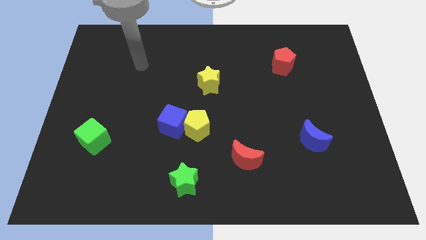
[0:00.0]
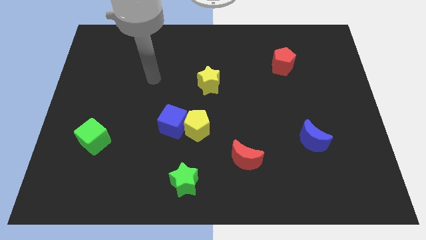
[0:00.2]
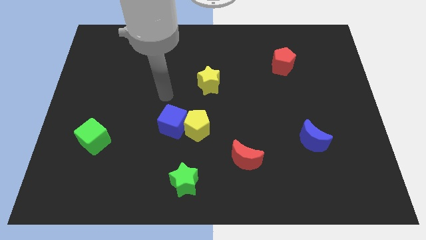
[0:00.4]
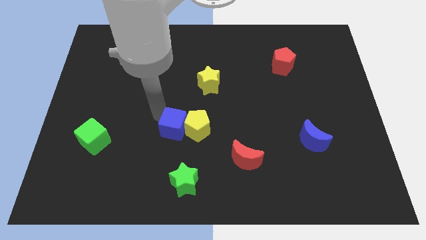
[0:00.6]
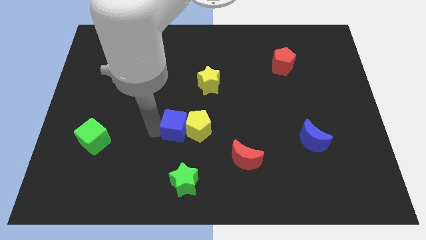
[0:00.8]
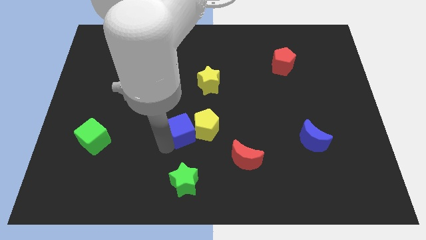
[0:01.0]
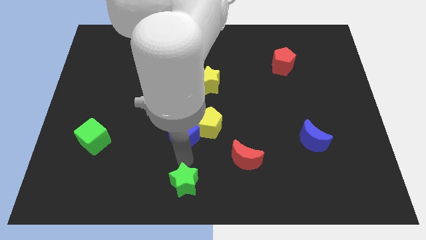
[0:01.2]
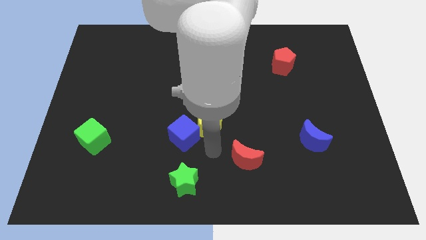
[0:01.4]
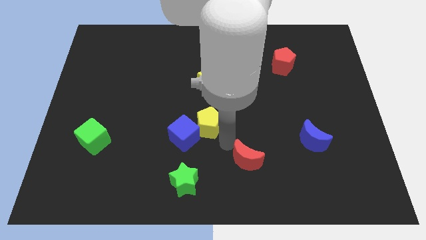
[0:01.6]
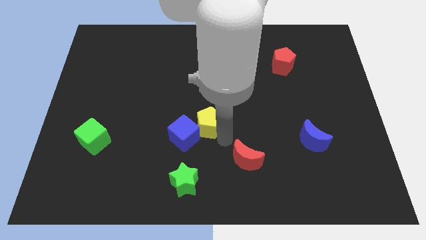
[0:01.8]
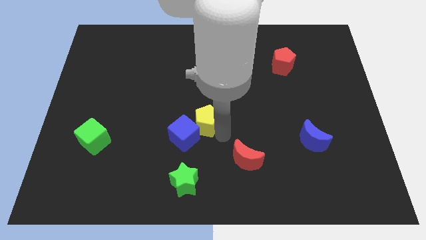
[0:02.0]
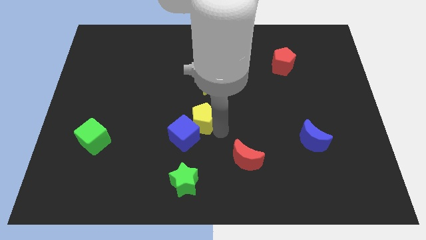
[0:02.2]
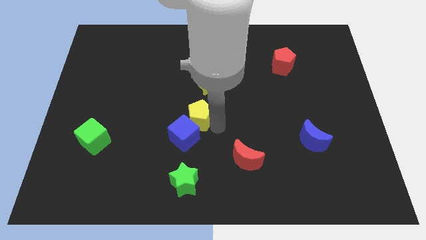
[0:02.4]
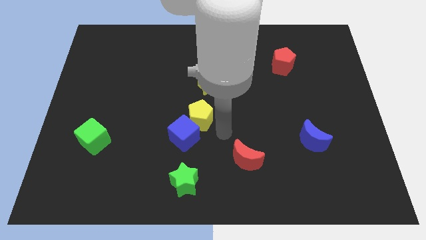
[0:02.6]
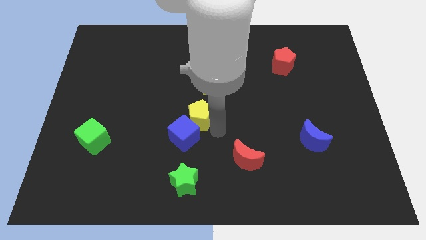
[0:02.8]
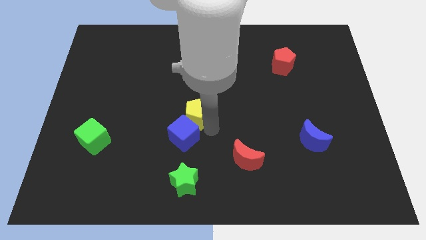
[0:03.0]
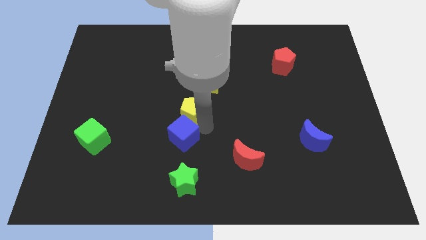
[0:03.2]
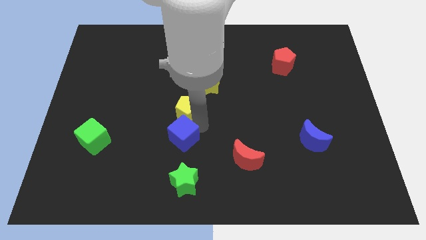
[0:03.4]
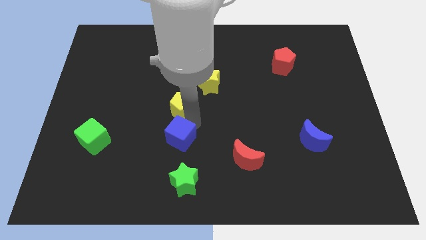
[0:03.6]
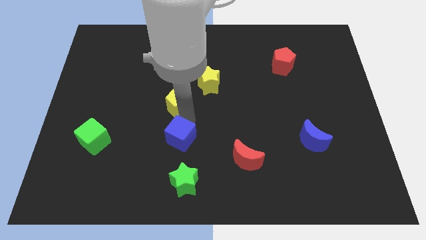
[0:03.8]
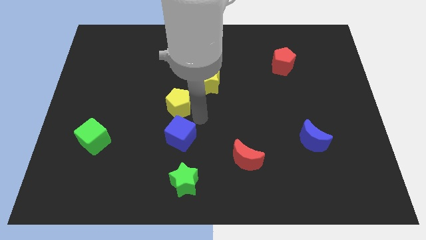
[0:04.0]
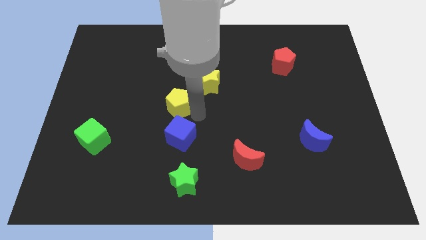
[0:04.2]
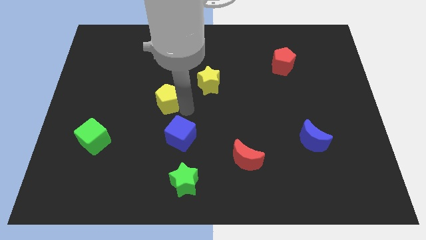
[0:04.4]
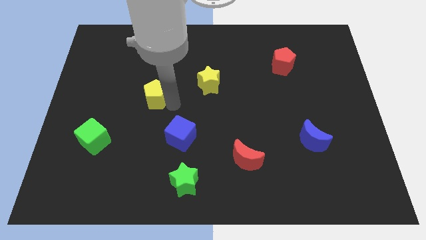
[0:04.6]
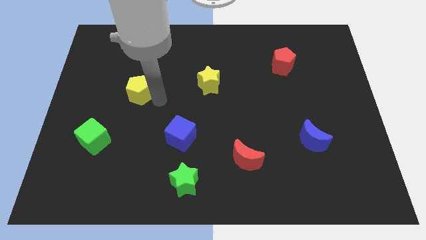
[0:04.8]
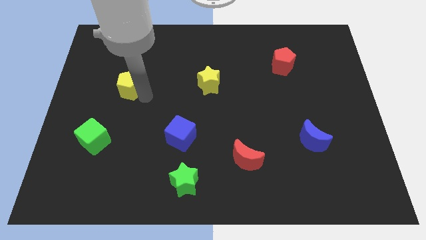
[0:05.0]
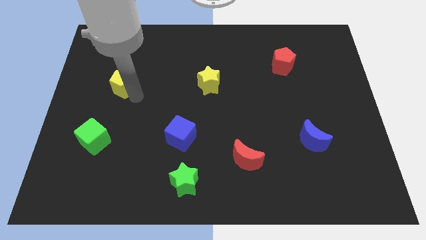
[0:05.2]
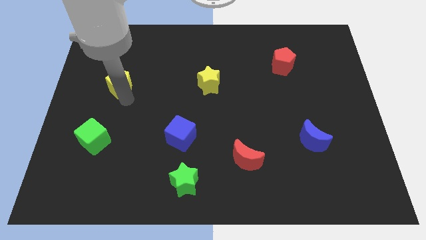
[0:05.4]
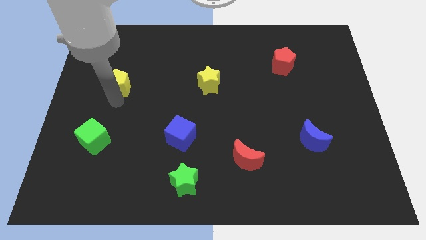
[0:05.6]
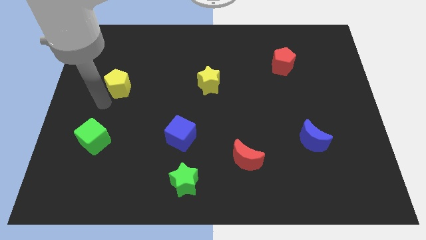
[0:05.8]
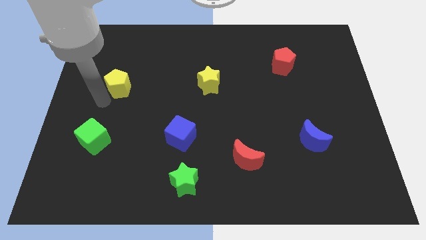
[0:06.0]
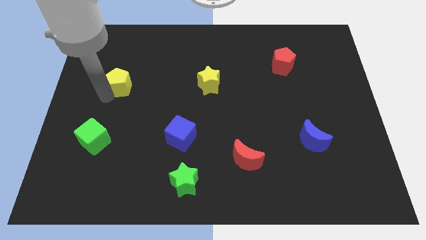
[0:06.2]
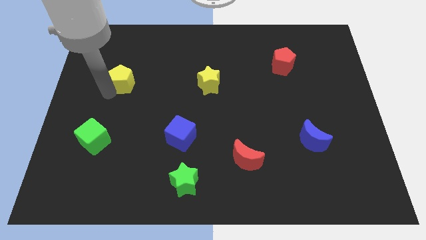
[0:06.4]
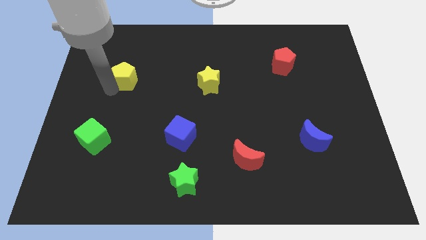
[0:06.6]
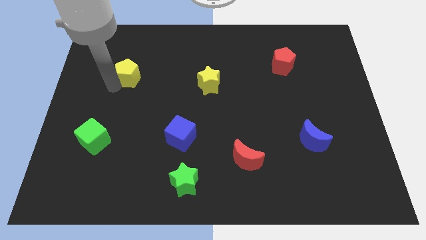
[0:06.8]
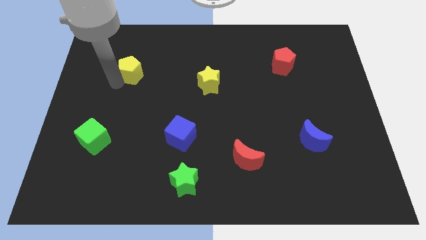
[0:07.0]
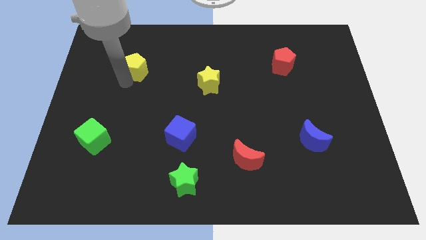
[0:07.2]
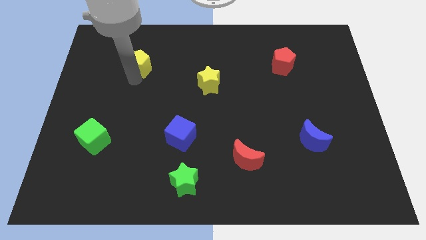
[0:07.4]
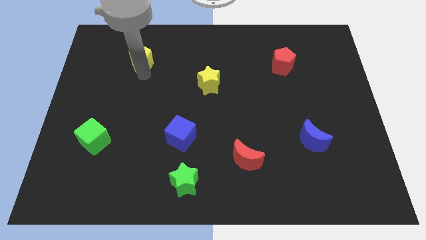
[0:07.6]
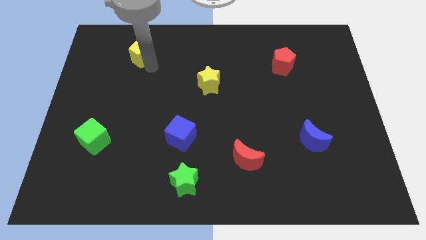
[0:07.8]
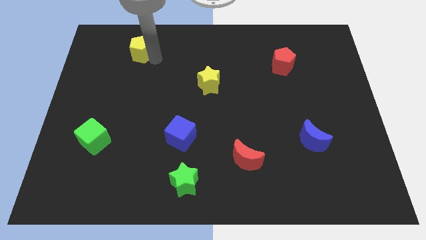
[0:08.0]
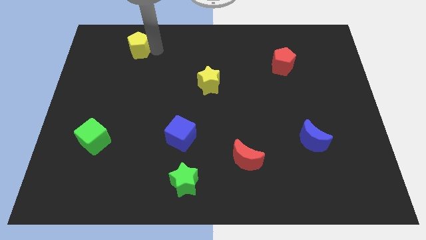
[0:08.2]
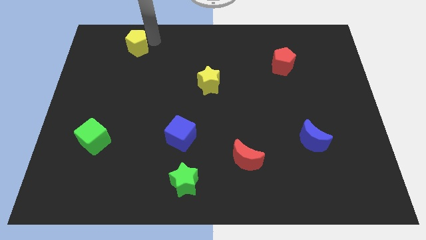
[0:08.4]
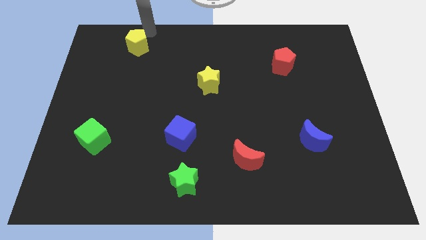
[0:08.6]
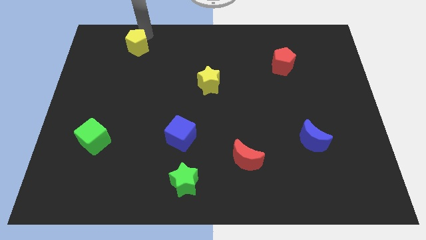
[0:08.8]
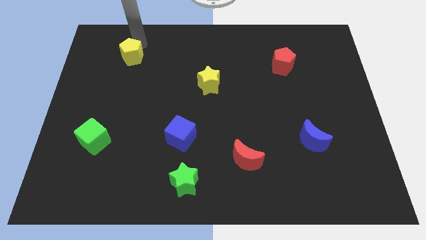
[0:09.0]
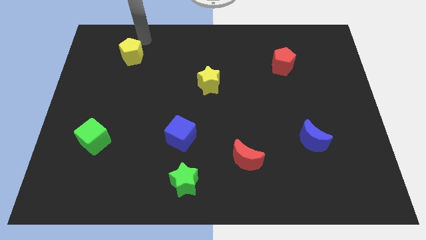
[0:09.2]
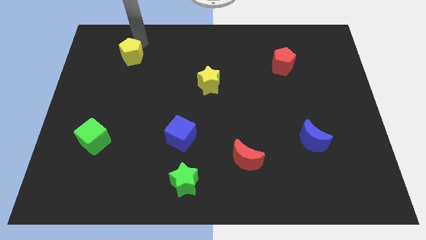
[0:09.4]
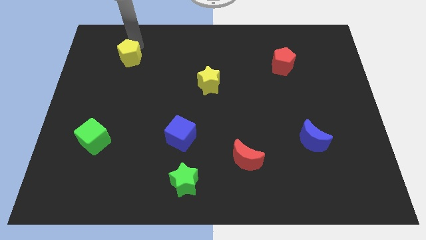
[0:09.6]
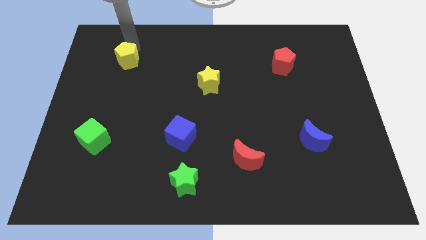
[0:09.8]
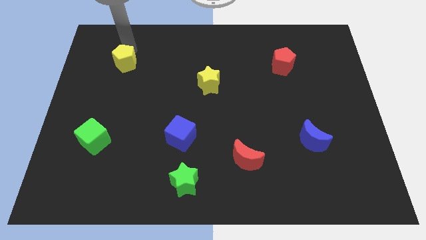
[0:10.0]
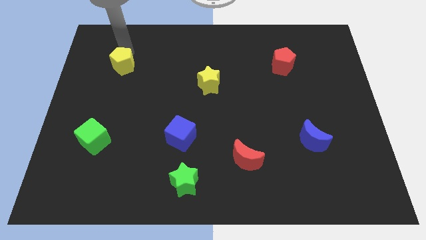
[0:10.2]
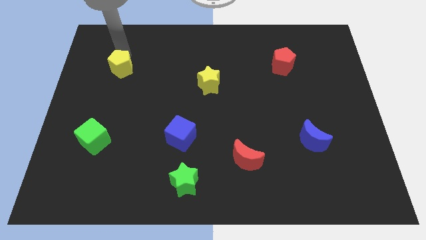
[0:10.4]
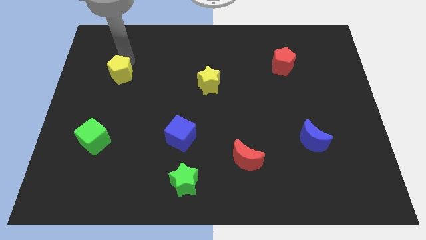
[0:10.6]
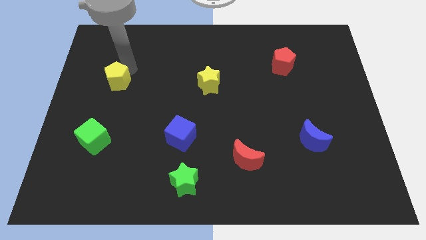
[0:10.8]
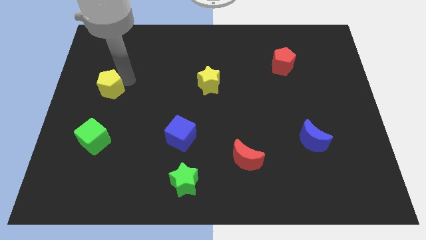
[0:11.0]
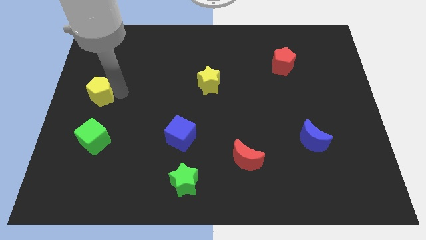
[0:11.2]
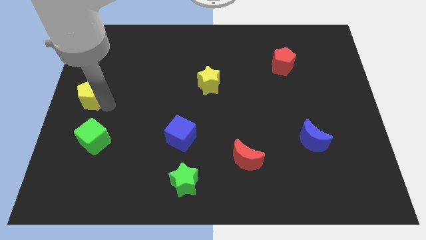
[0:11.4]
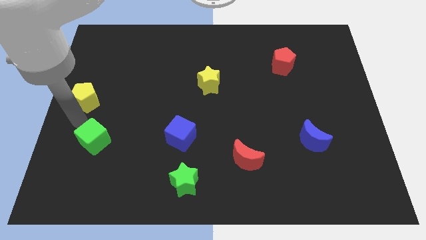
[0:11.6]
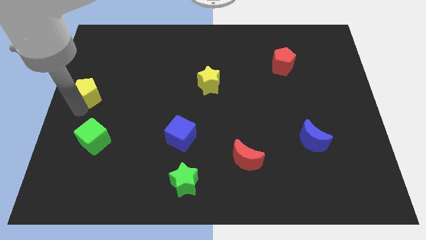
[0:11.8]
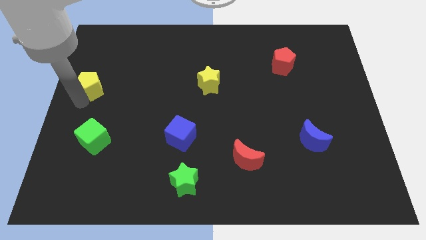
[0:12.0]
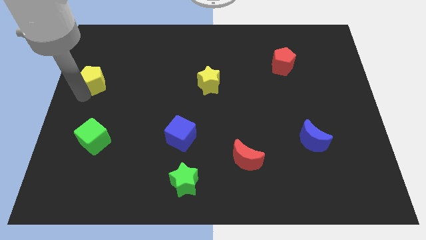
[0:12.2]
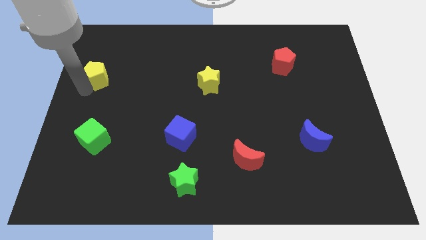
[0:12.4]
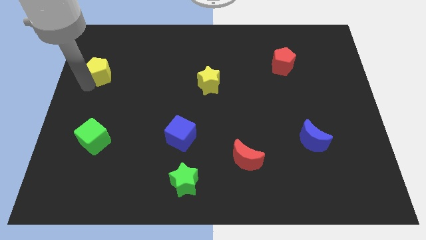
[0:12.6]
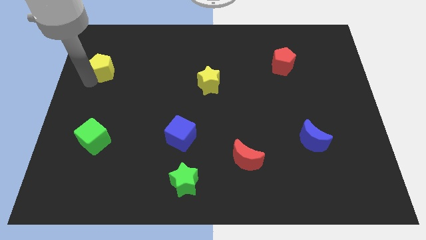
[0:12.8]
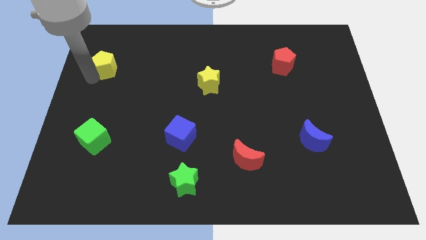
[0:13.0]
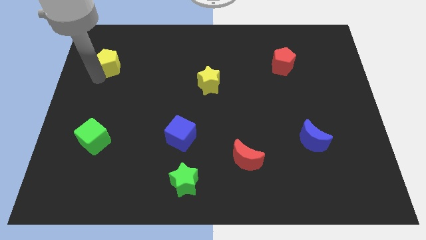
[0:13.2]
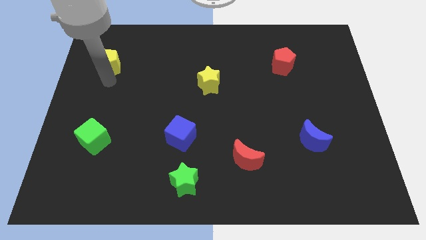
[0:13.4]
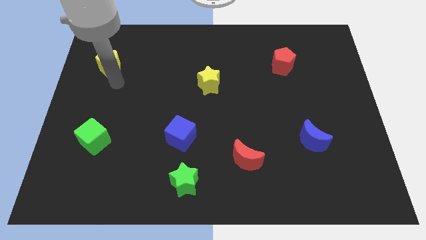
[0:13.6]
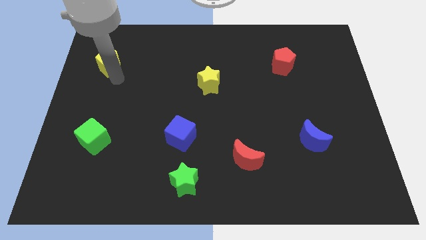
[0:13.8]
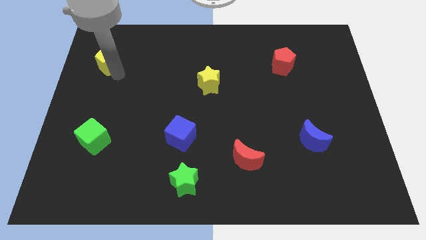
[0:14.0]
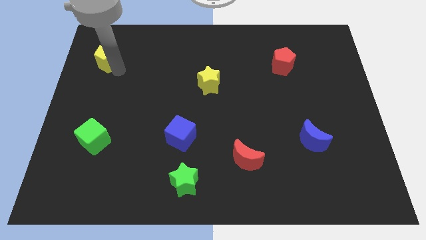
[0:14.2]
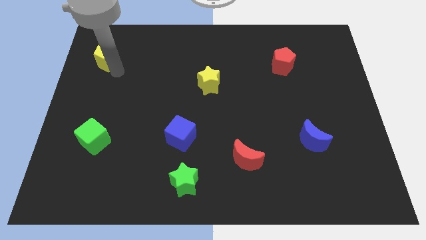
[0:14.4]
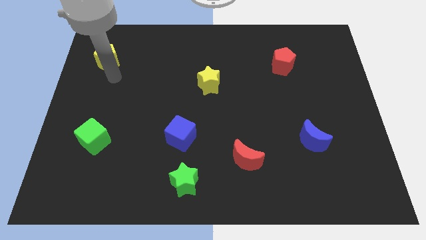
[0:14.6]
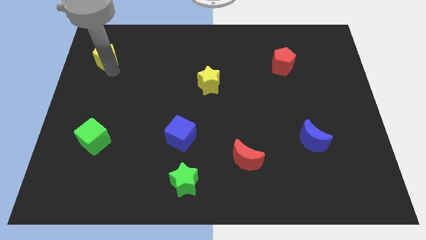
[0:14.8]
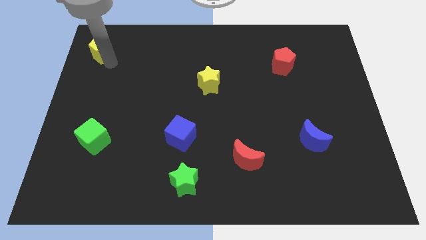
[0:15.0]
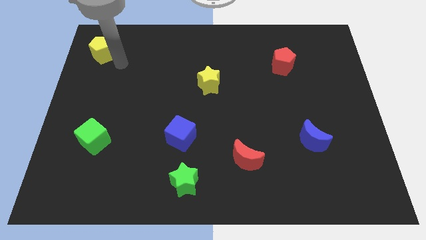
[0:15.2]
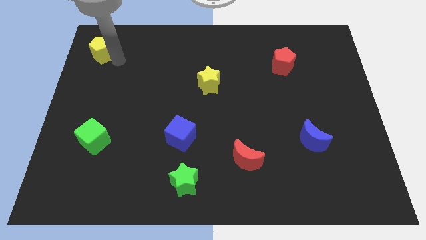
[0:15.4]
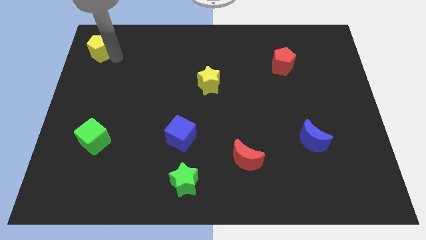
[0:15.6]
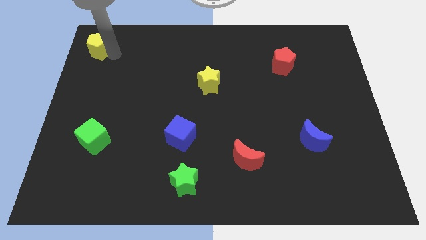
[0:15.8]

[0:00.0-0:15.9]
move the yellow pentagon to the top left
